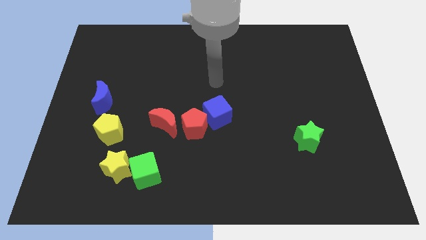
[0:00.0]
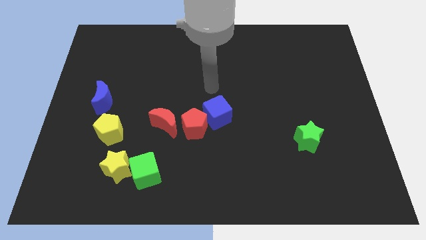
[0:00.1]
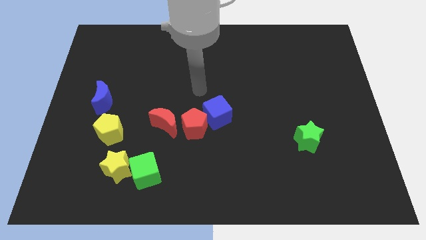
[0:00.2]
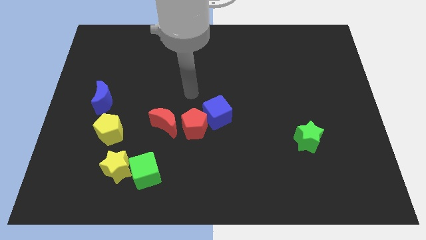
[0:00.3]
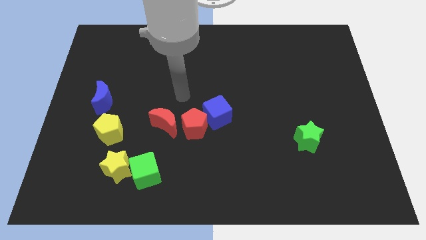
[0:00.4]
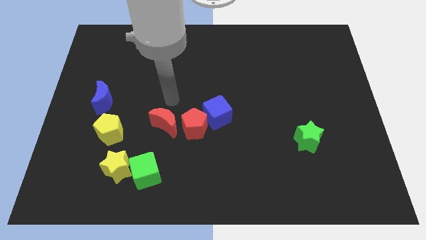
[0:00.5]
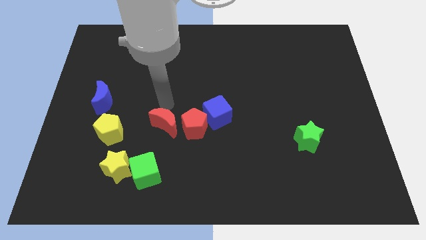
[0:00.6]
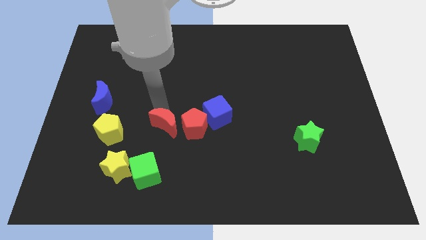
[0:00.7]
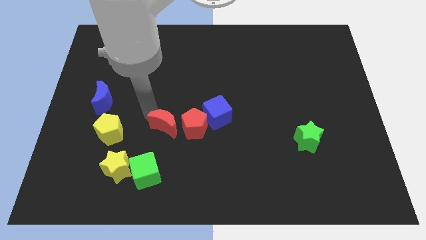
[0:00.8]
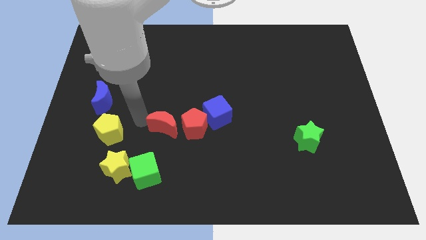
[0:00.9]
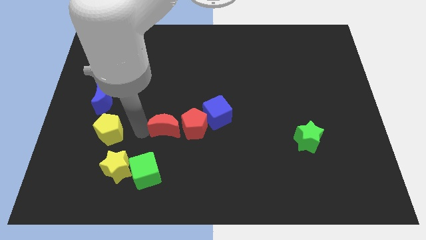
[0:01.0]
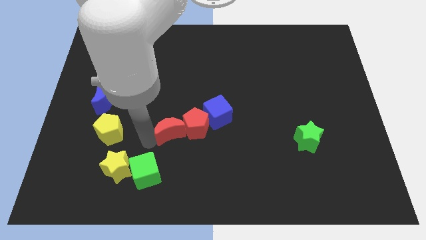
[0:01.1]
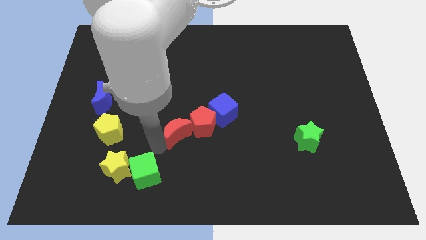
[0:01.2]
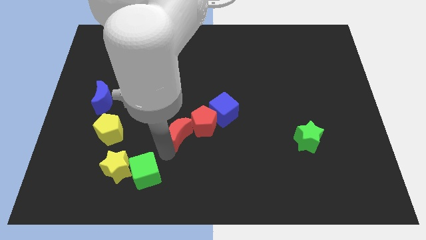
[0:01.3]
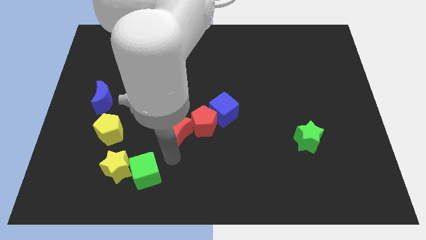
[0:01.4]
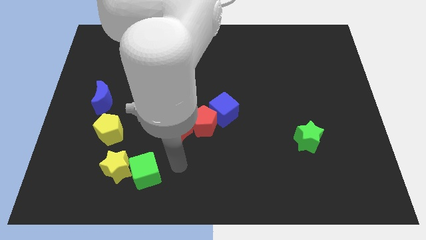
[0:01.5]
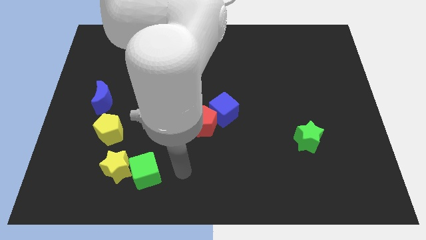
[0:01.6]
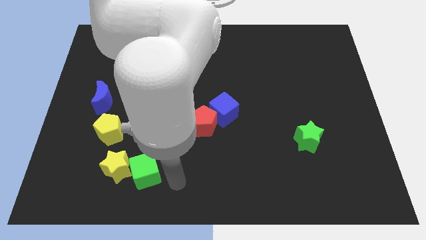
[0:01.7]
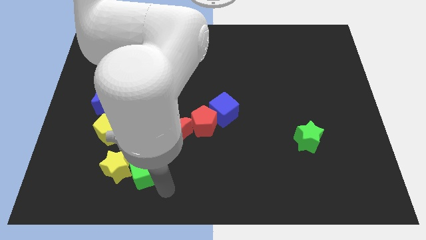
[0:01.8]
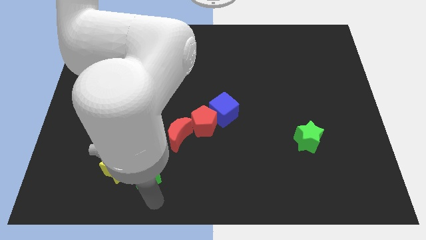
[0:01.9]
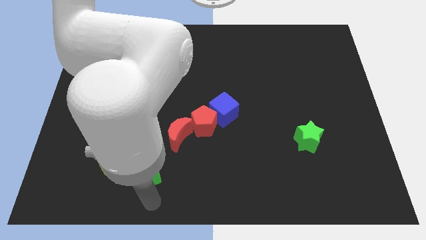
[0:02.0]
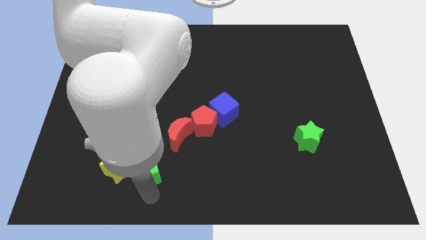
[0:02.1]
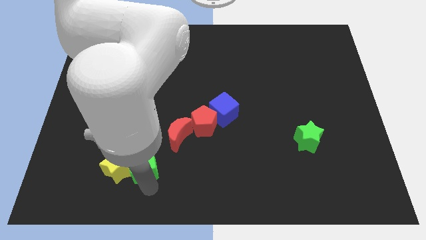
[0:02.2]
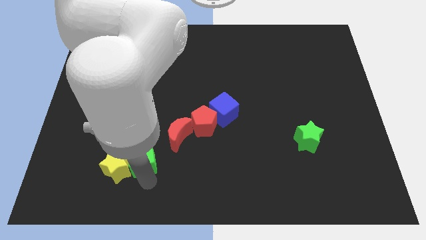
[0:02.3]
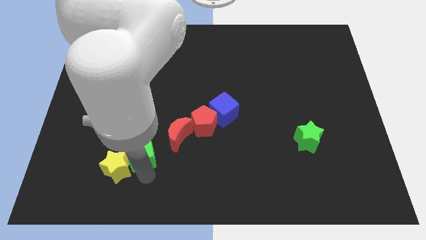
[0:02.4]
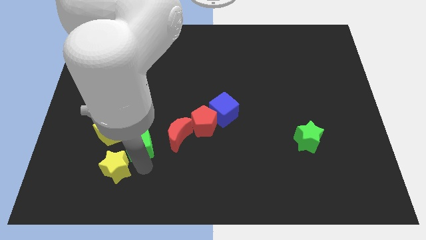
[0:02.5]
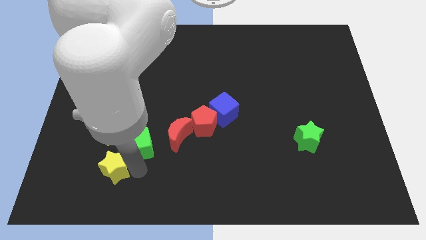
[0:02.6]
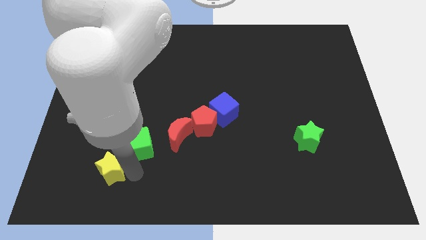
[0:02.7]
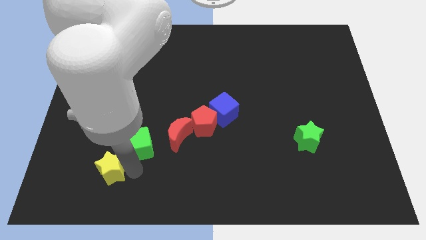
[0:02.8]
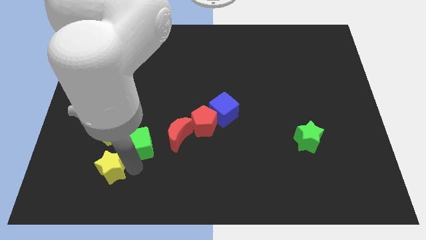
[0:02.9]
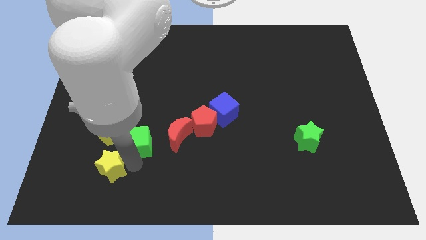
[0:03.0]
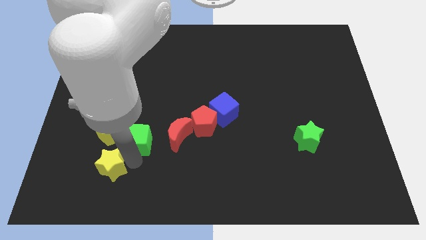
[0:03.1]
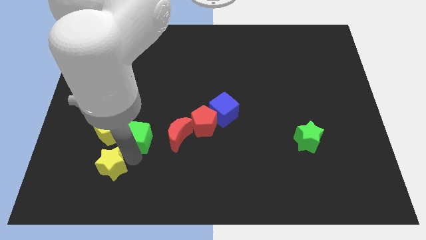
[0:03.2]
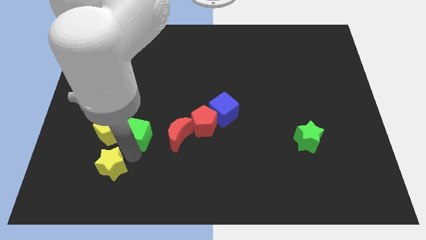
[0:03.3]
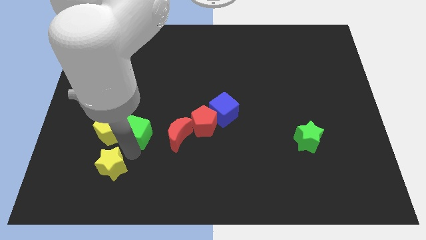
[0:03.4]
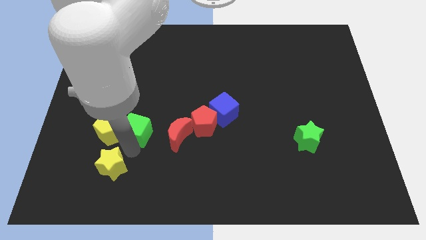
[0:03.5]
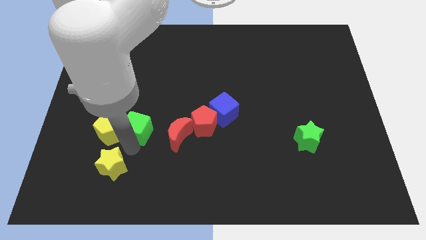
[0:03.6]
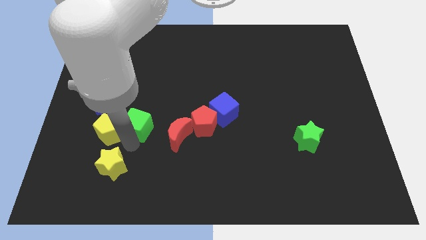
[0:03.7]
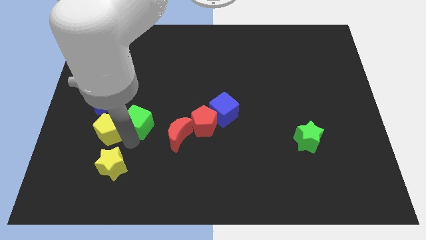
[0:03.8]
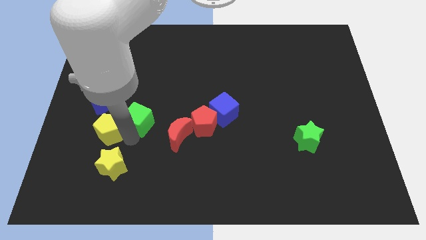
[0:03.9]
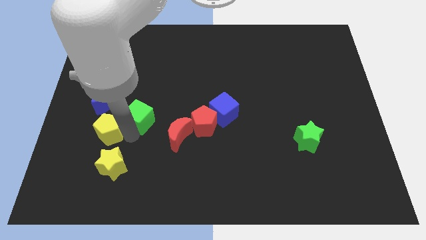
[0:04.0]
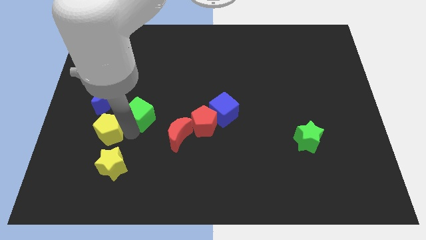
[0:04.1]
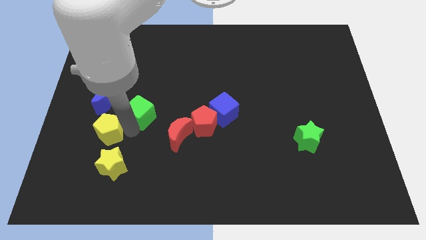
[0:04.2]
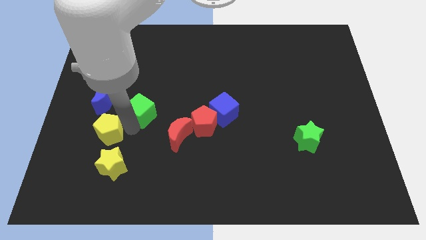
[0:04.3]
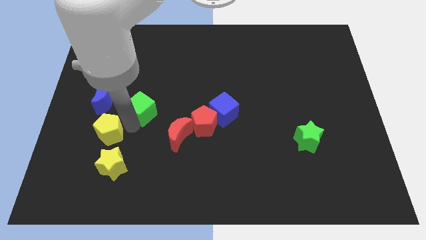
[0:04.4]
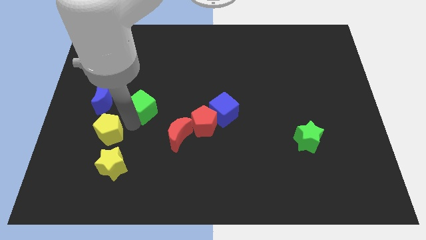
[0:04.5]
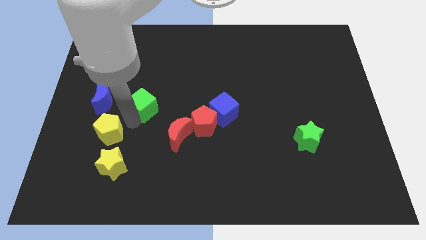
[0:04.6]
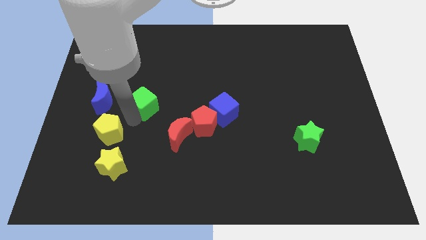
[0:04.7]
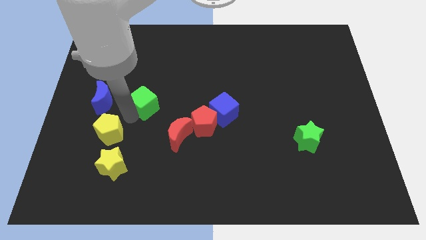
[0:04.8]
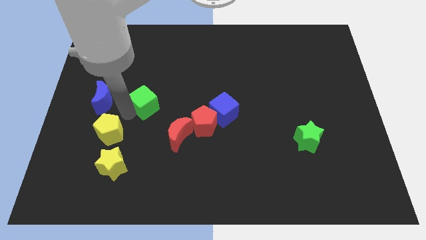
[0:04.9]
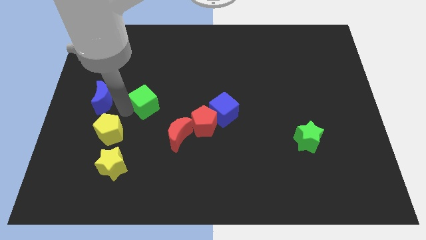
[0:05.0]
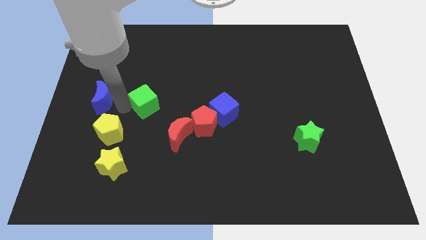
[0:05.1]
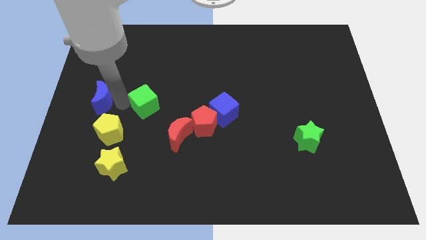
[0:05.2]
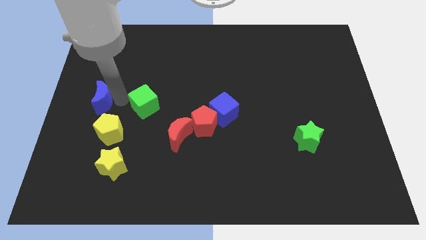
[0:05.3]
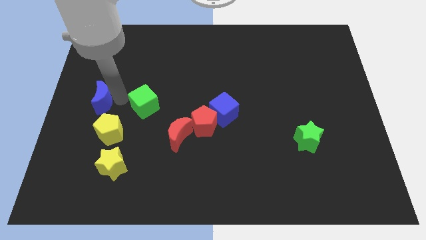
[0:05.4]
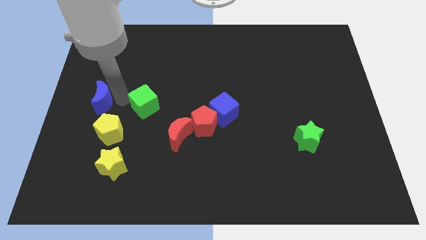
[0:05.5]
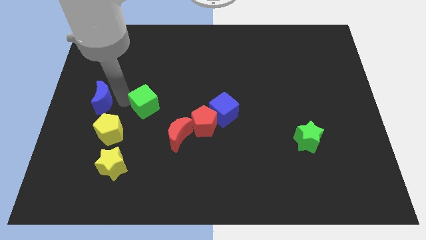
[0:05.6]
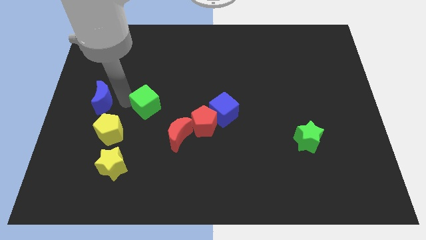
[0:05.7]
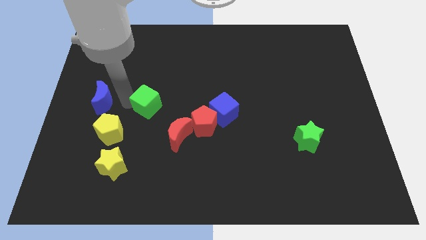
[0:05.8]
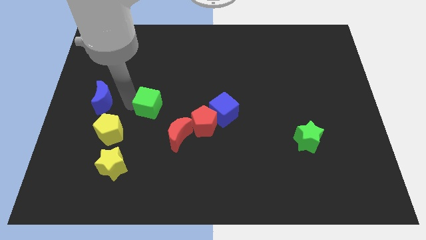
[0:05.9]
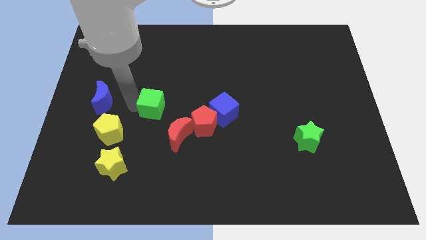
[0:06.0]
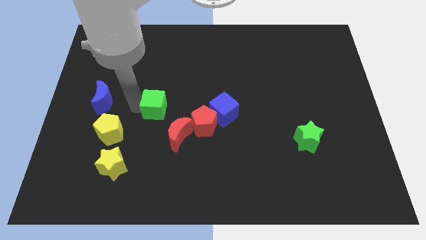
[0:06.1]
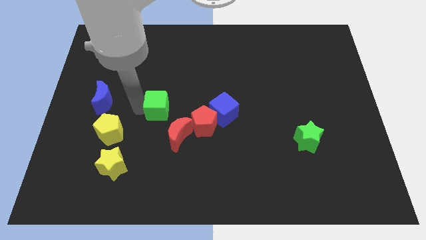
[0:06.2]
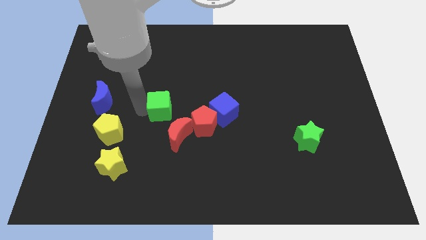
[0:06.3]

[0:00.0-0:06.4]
push the green cube to the middle of the board
